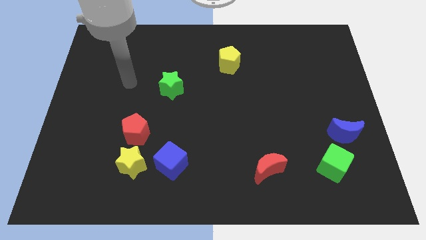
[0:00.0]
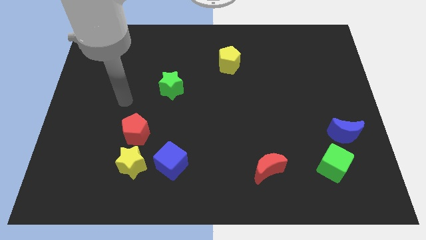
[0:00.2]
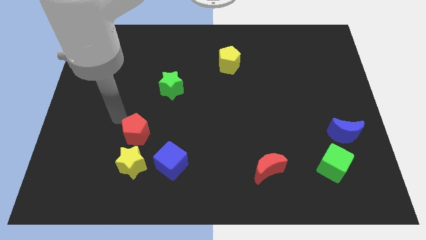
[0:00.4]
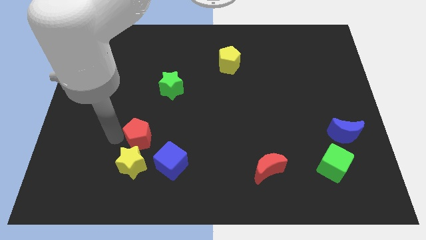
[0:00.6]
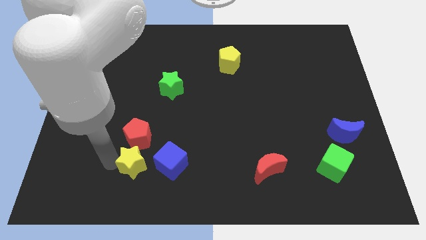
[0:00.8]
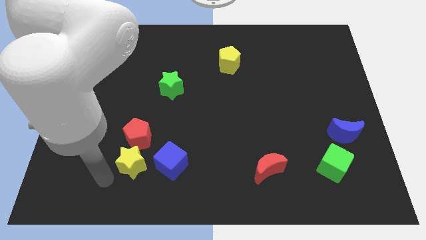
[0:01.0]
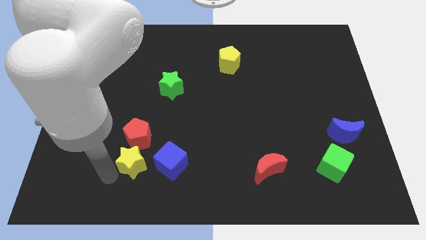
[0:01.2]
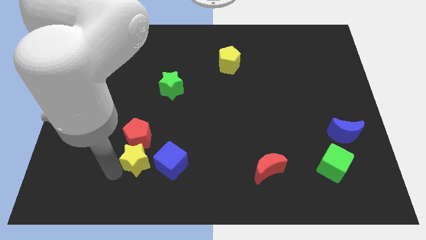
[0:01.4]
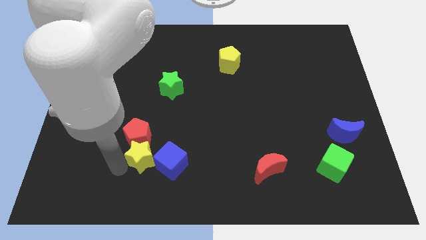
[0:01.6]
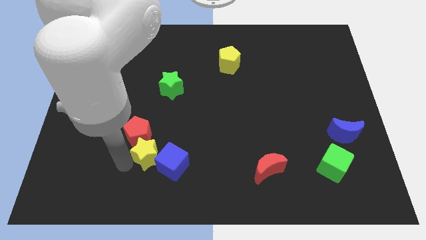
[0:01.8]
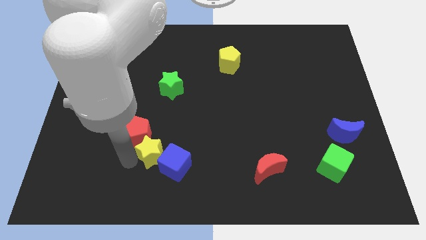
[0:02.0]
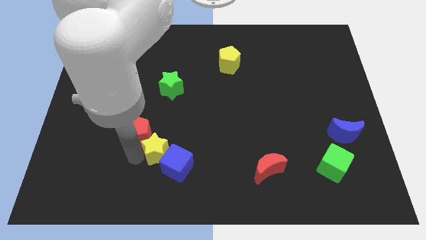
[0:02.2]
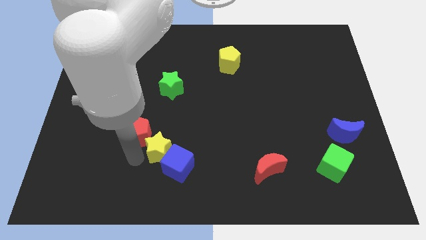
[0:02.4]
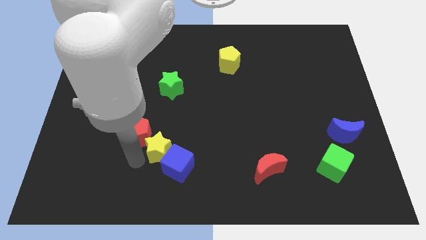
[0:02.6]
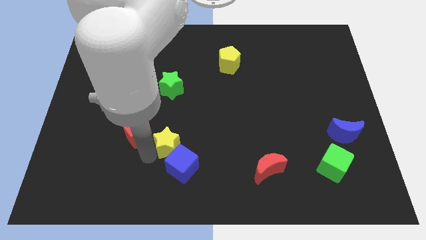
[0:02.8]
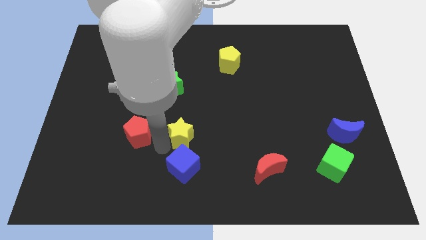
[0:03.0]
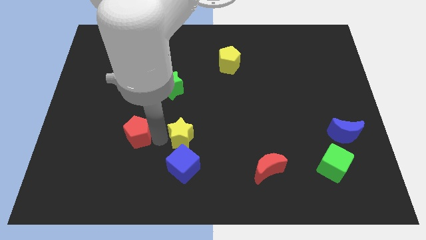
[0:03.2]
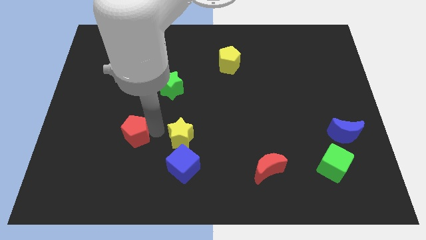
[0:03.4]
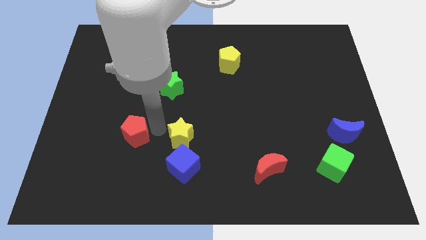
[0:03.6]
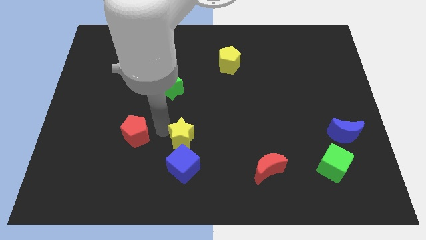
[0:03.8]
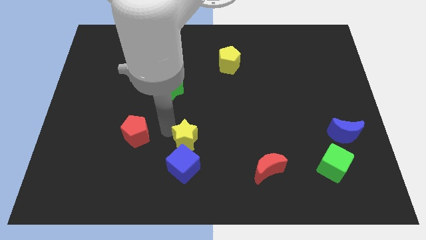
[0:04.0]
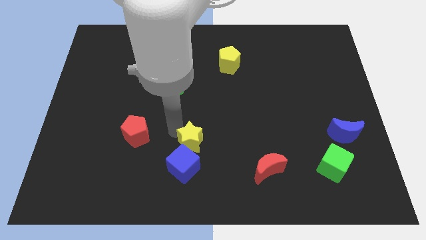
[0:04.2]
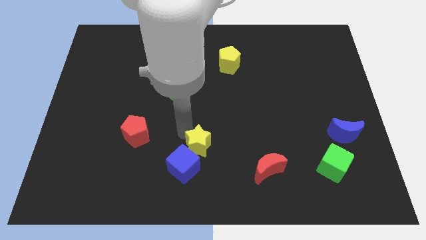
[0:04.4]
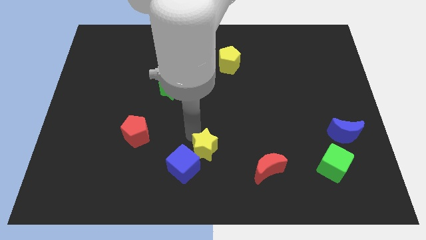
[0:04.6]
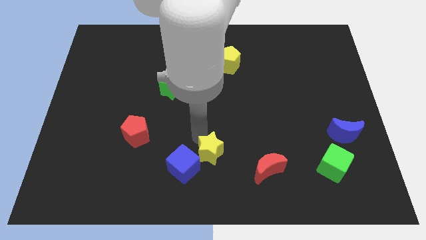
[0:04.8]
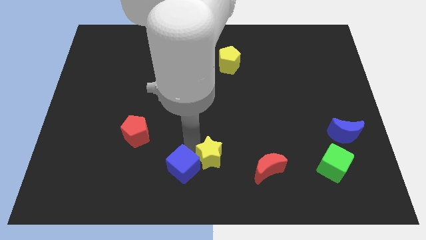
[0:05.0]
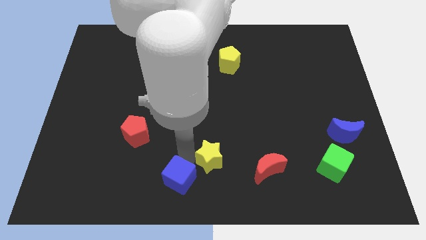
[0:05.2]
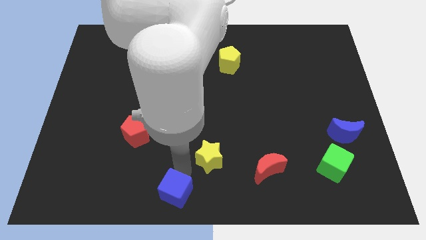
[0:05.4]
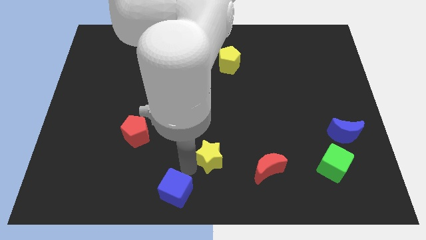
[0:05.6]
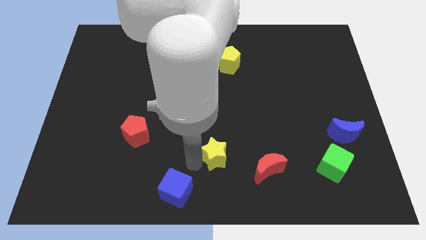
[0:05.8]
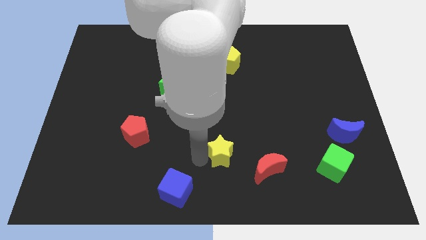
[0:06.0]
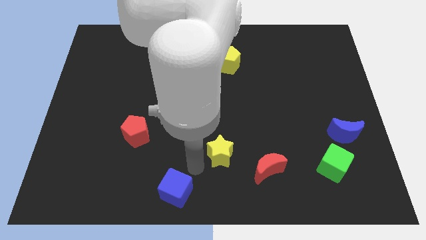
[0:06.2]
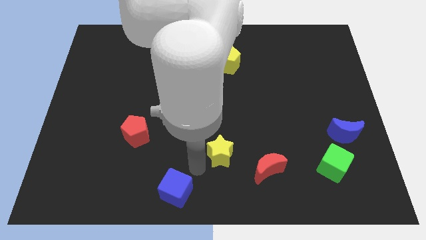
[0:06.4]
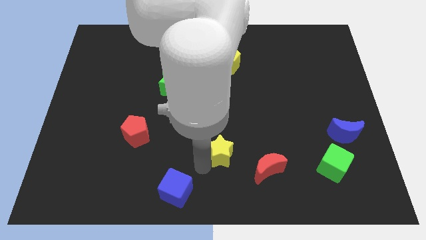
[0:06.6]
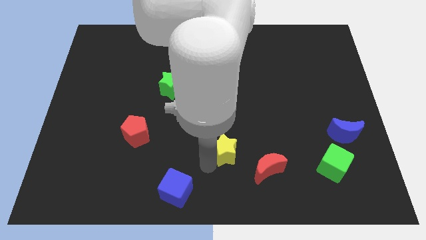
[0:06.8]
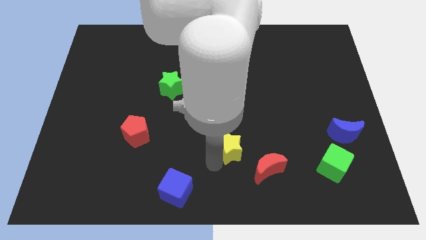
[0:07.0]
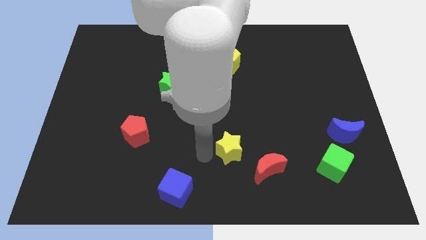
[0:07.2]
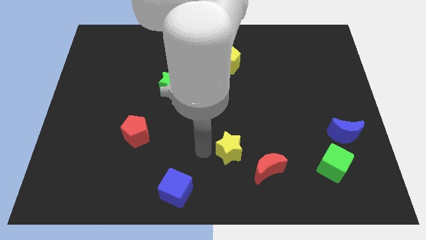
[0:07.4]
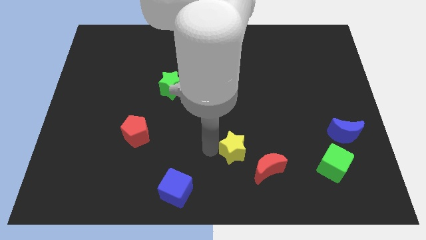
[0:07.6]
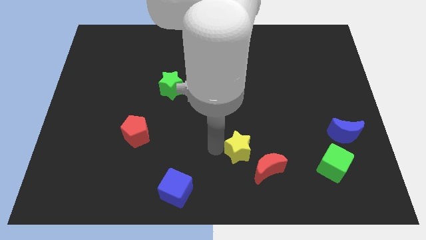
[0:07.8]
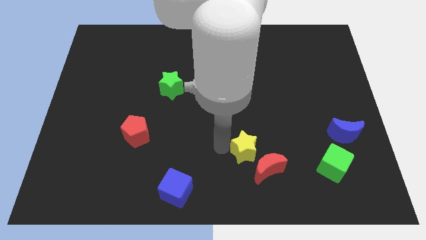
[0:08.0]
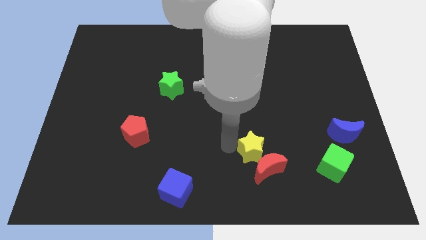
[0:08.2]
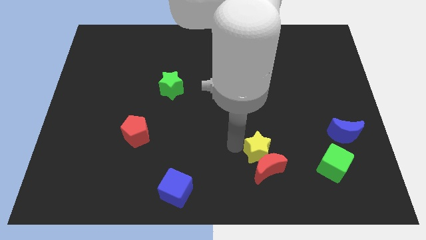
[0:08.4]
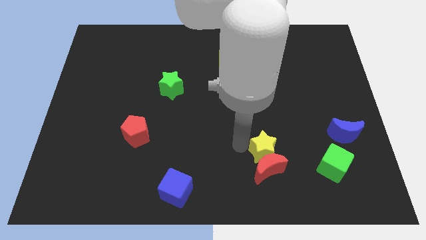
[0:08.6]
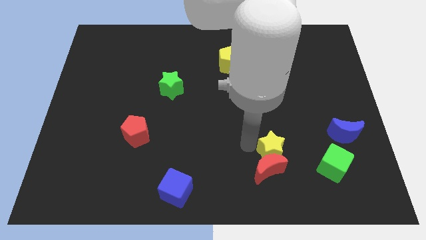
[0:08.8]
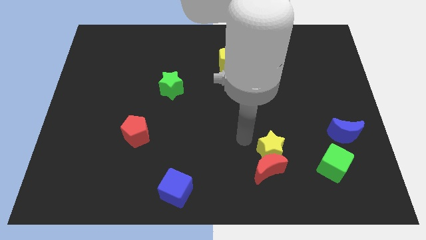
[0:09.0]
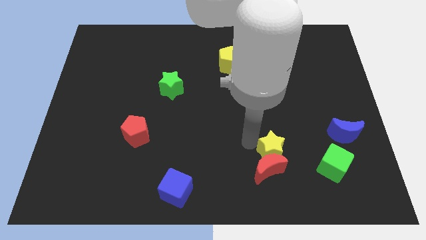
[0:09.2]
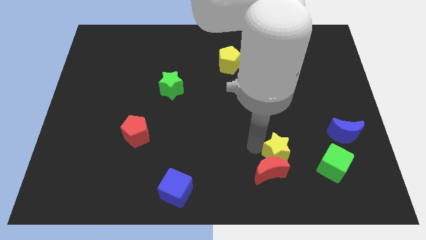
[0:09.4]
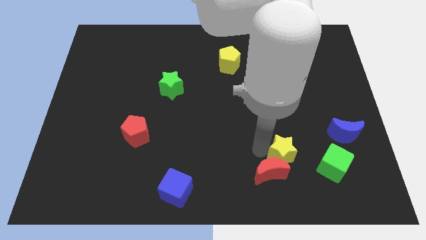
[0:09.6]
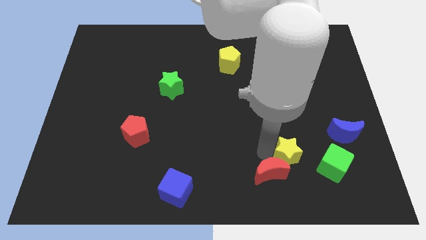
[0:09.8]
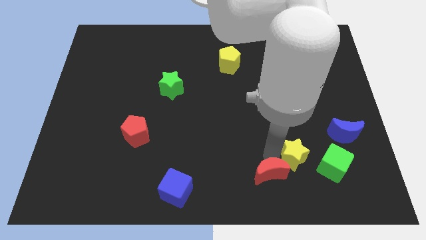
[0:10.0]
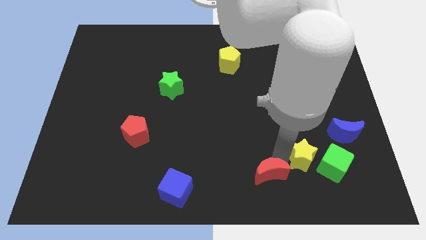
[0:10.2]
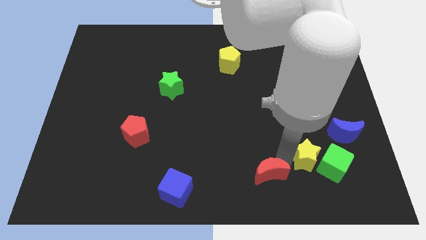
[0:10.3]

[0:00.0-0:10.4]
push the yellow star towards the green cube

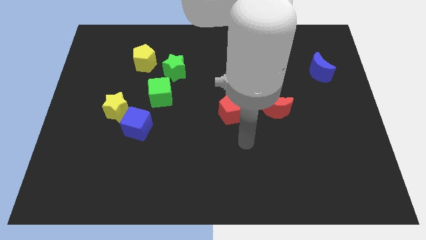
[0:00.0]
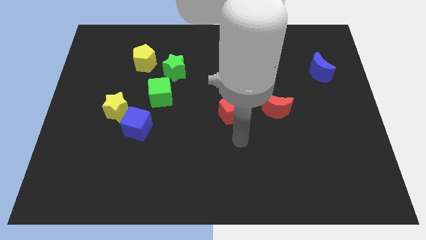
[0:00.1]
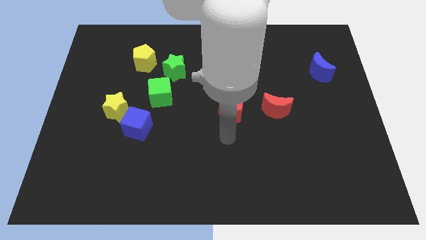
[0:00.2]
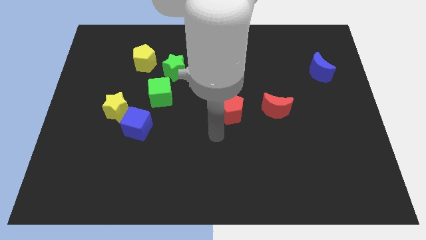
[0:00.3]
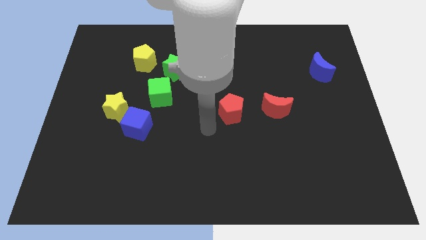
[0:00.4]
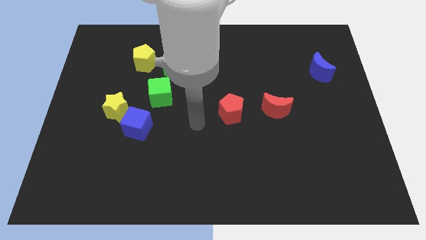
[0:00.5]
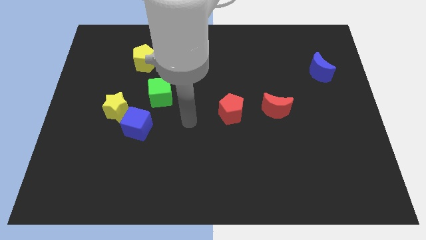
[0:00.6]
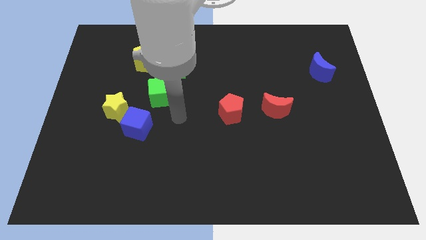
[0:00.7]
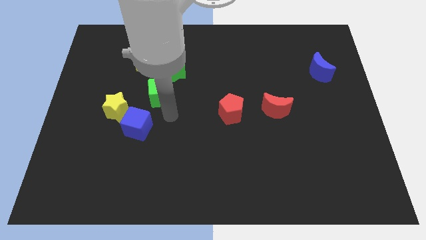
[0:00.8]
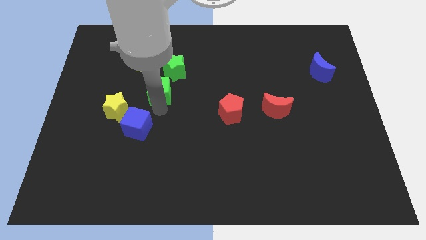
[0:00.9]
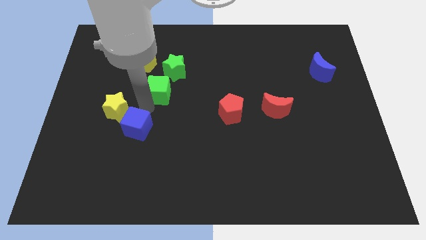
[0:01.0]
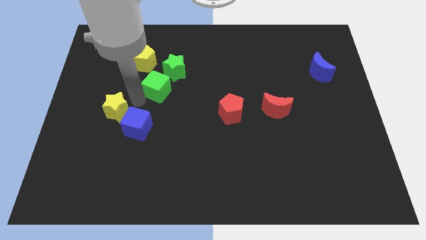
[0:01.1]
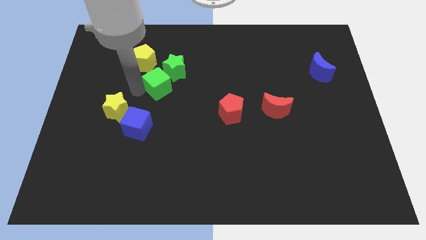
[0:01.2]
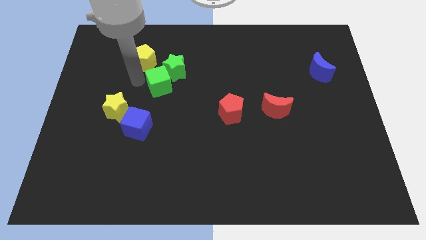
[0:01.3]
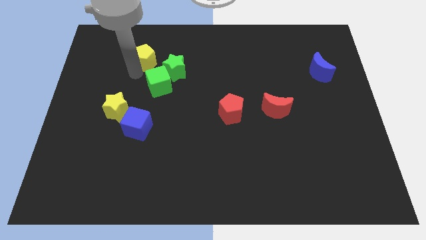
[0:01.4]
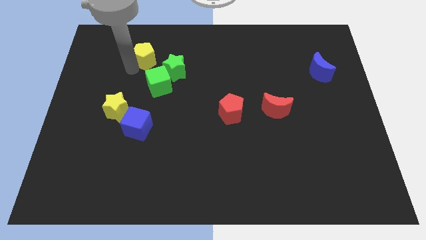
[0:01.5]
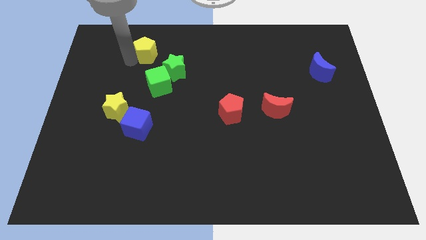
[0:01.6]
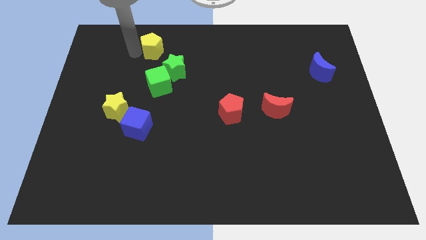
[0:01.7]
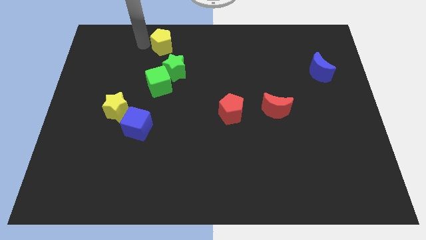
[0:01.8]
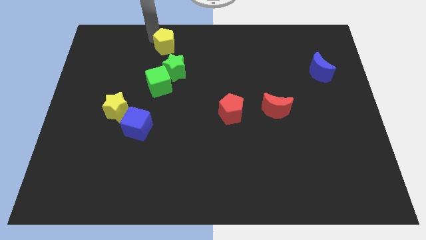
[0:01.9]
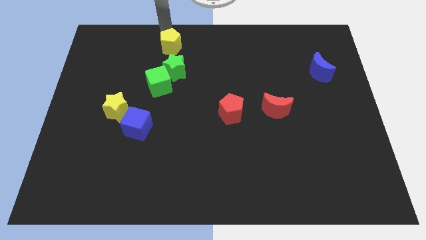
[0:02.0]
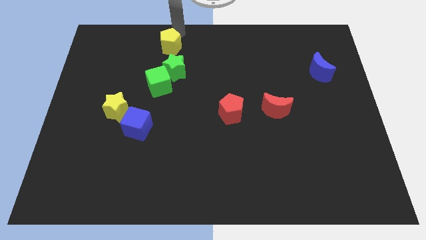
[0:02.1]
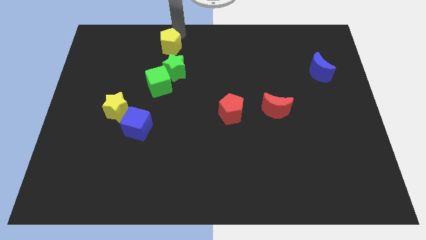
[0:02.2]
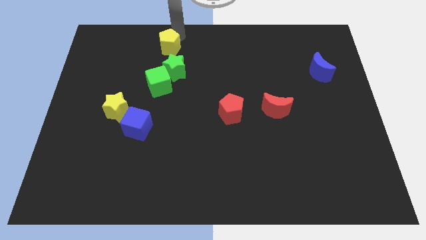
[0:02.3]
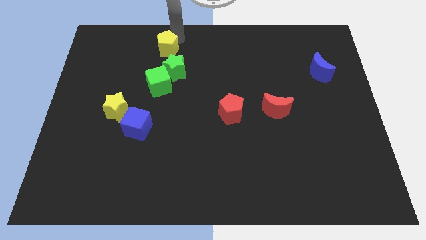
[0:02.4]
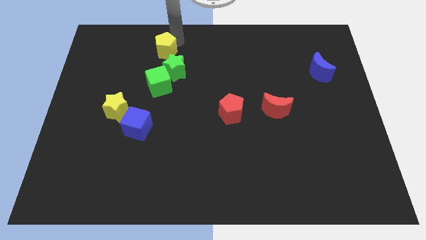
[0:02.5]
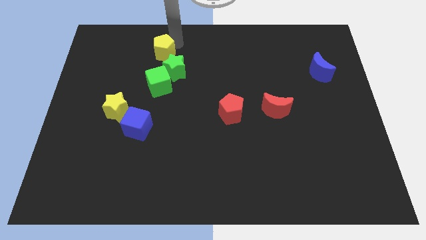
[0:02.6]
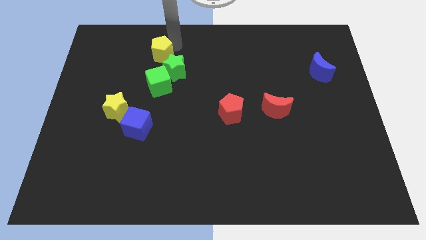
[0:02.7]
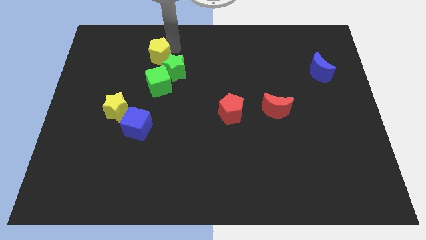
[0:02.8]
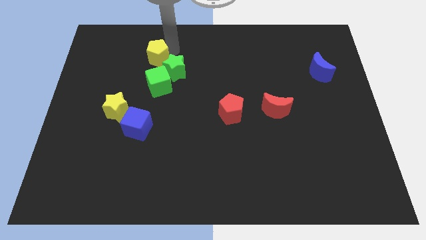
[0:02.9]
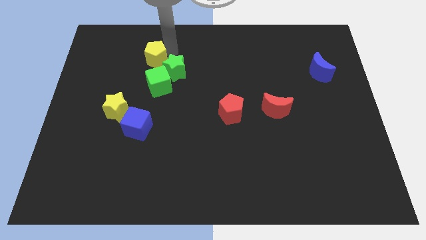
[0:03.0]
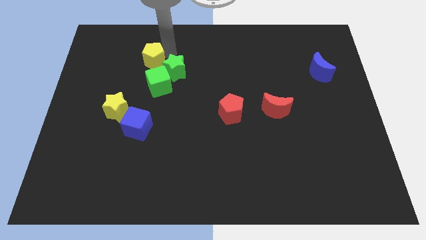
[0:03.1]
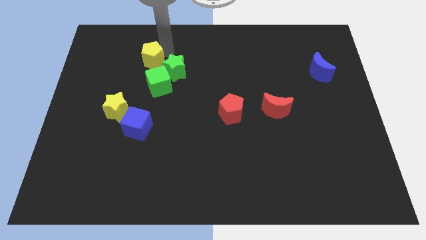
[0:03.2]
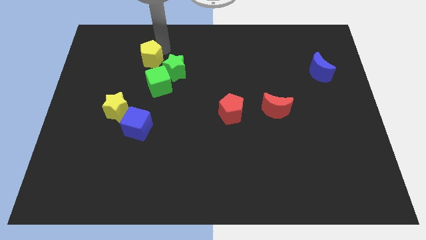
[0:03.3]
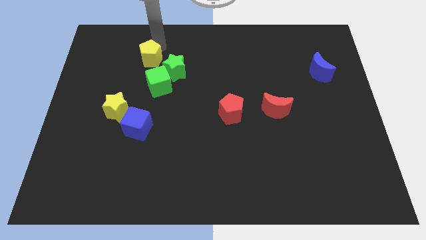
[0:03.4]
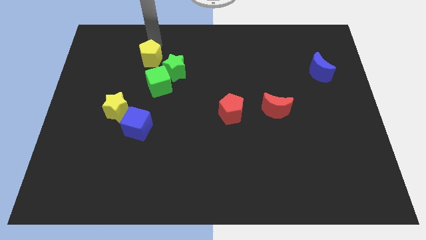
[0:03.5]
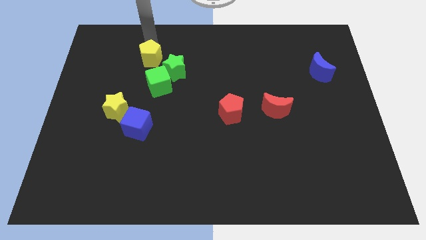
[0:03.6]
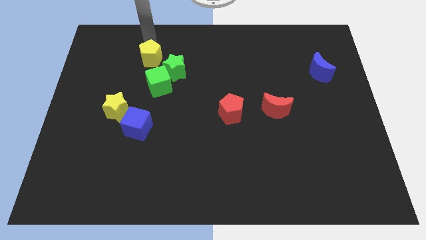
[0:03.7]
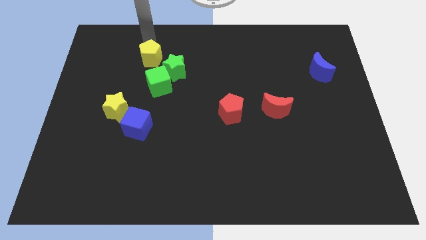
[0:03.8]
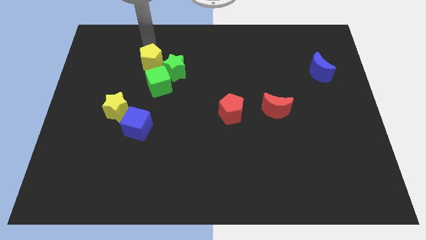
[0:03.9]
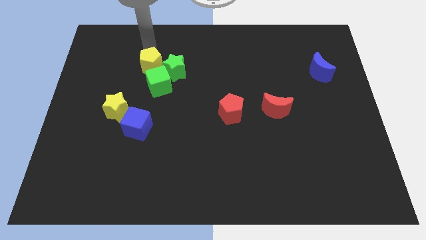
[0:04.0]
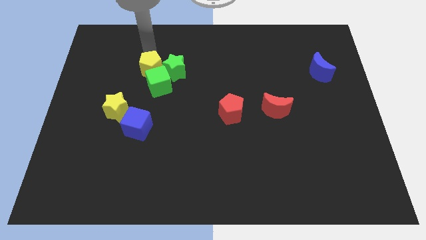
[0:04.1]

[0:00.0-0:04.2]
push the yellow pentagon next to the green cube
